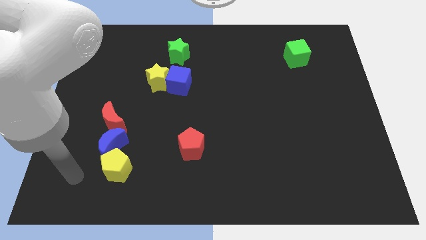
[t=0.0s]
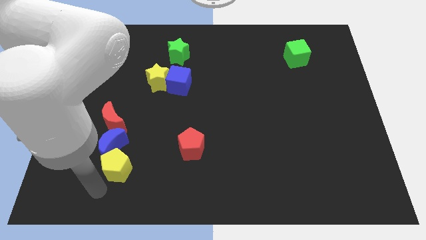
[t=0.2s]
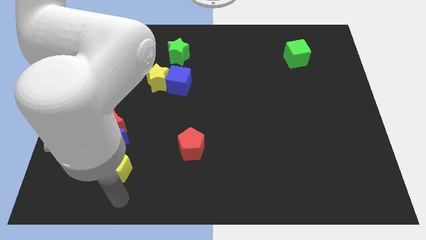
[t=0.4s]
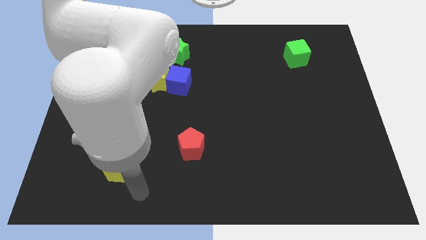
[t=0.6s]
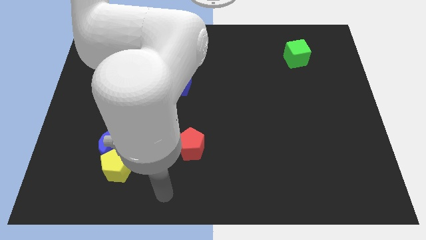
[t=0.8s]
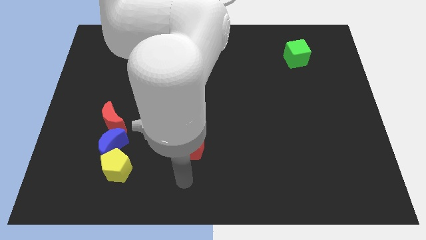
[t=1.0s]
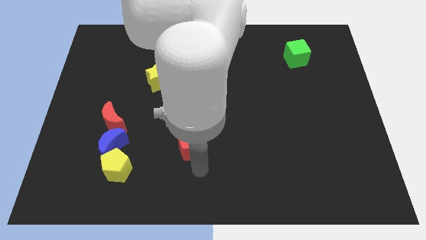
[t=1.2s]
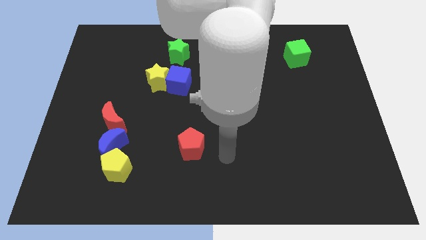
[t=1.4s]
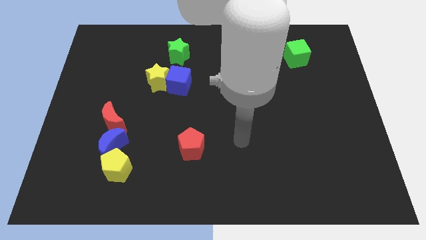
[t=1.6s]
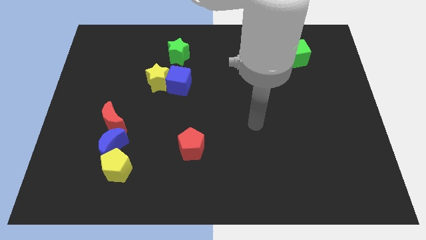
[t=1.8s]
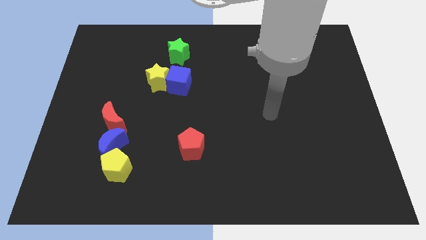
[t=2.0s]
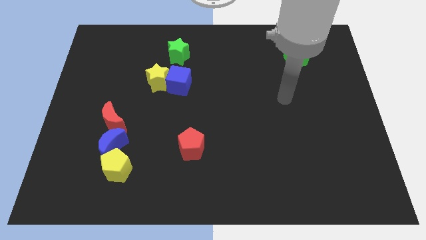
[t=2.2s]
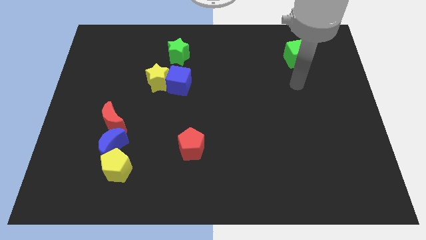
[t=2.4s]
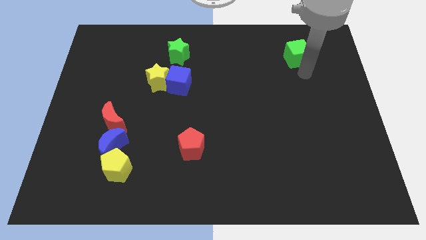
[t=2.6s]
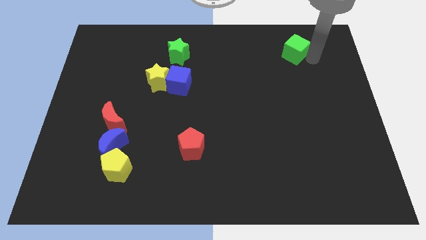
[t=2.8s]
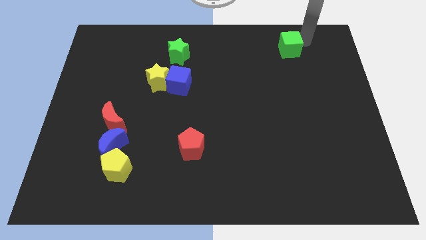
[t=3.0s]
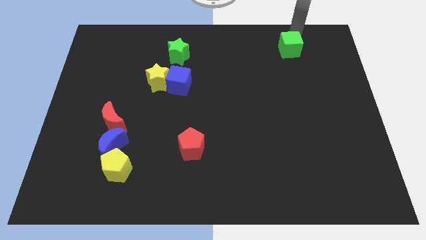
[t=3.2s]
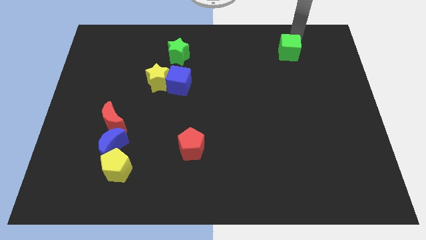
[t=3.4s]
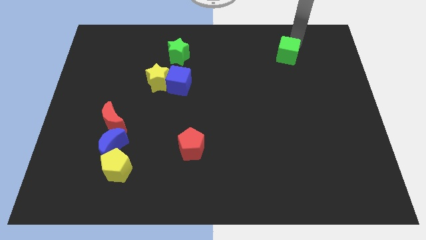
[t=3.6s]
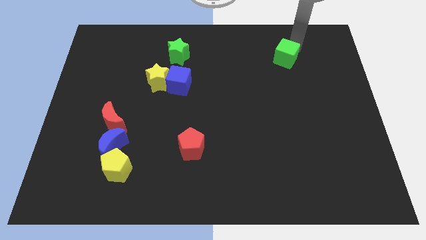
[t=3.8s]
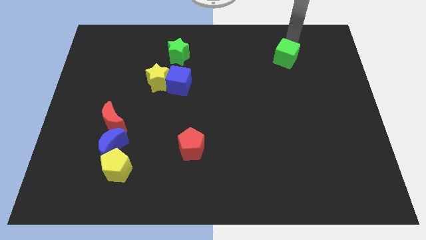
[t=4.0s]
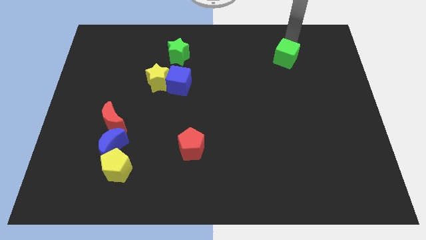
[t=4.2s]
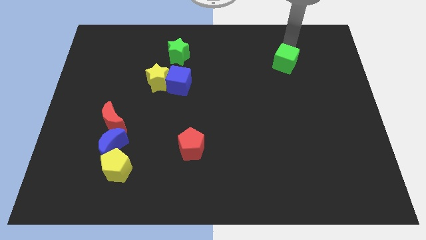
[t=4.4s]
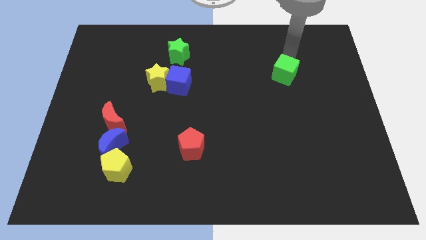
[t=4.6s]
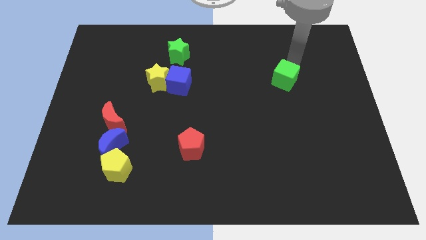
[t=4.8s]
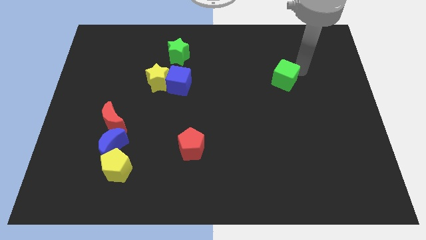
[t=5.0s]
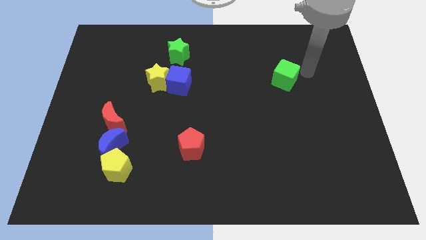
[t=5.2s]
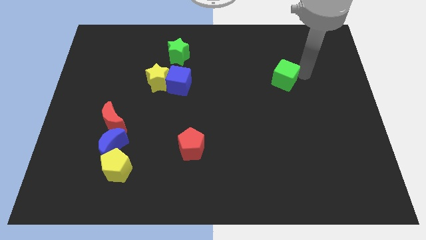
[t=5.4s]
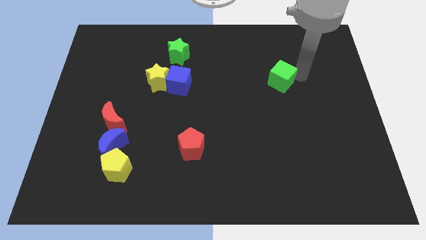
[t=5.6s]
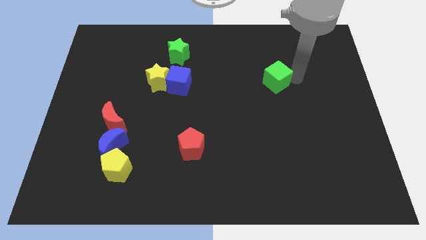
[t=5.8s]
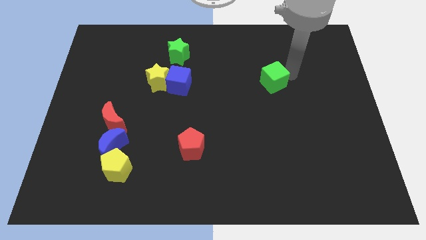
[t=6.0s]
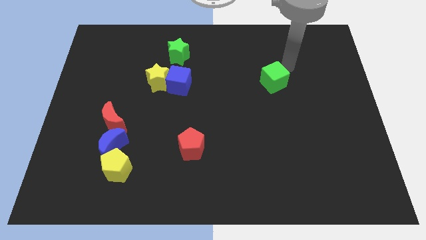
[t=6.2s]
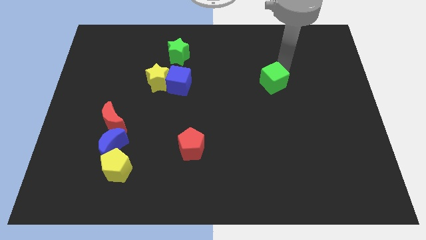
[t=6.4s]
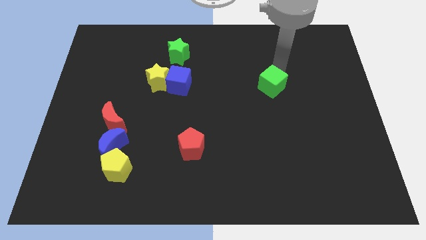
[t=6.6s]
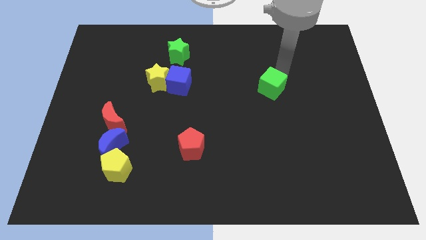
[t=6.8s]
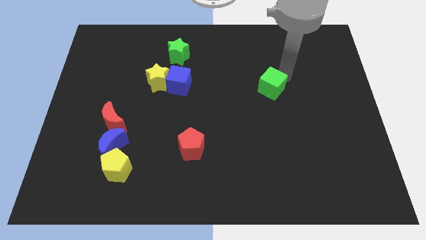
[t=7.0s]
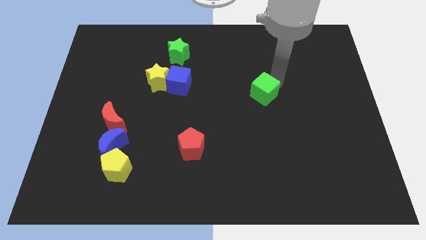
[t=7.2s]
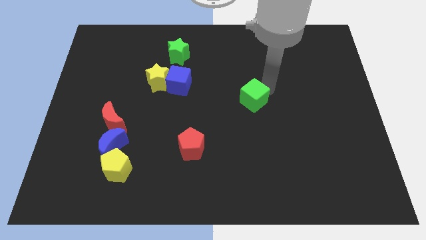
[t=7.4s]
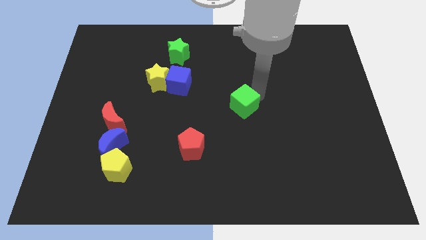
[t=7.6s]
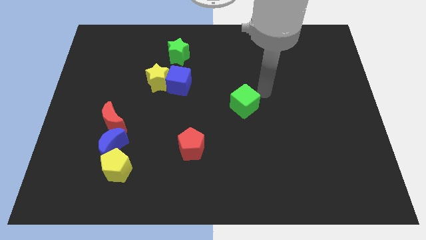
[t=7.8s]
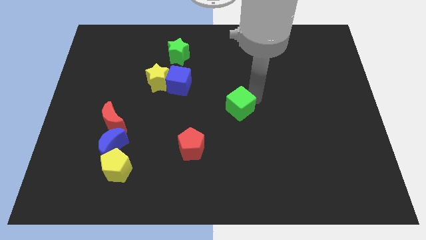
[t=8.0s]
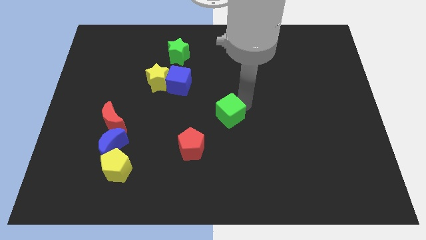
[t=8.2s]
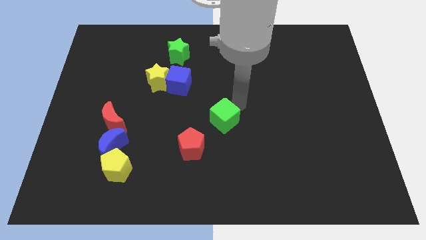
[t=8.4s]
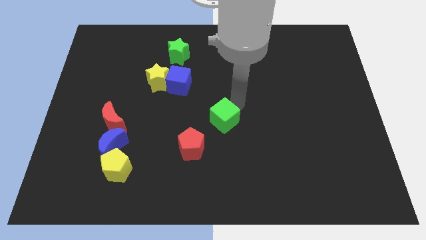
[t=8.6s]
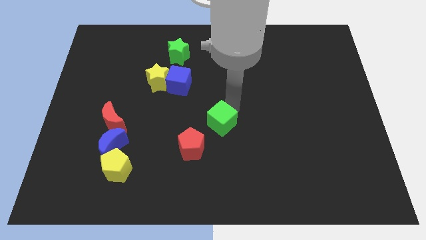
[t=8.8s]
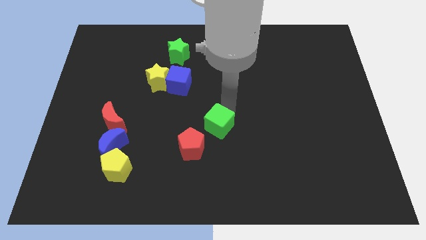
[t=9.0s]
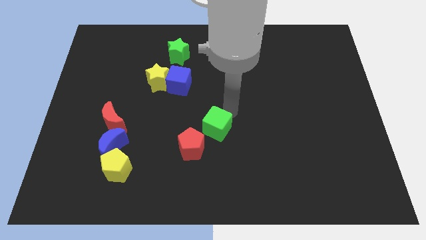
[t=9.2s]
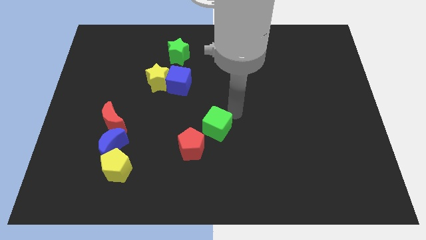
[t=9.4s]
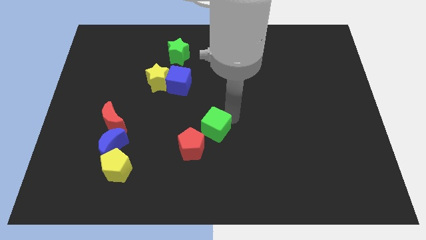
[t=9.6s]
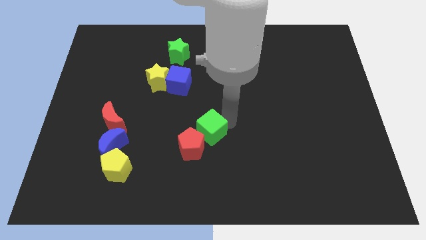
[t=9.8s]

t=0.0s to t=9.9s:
move the green cube towards the red pentagon

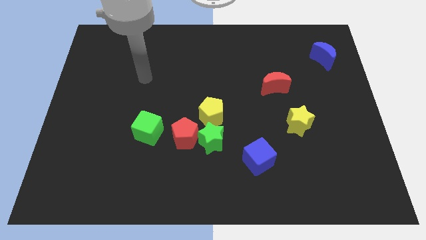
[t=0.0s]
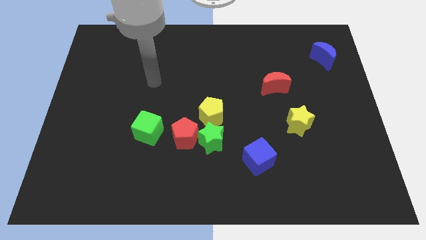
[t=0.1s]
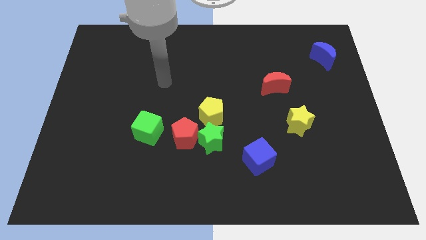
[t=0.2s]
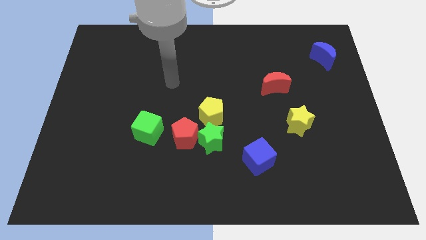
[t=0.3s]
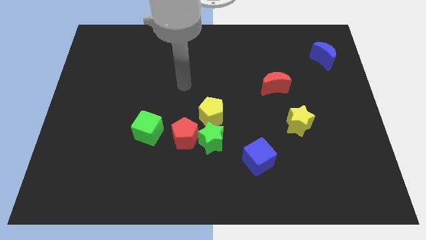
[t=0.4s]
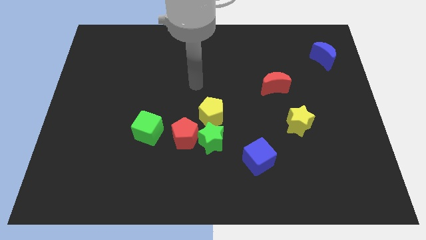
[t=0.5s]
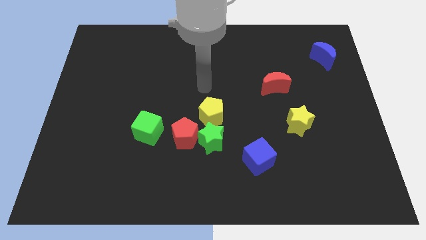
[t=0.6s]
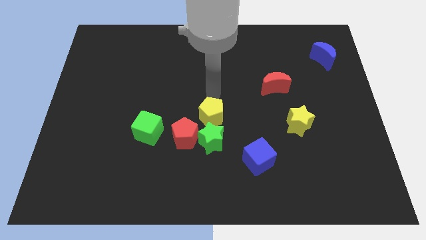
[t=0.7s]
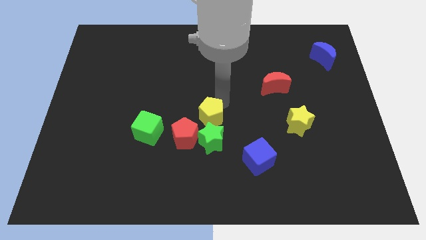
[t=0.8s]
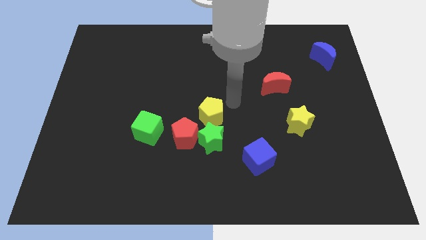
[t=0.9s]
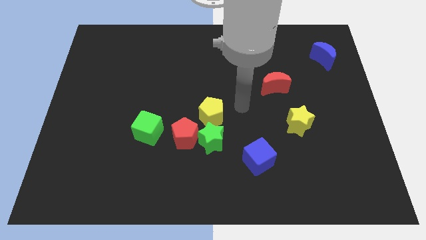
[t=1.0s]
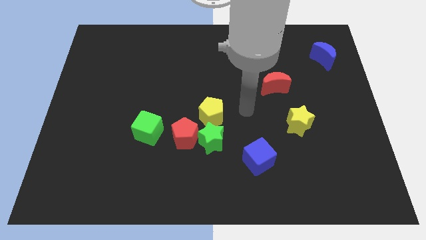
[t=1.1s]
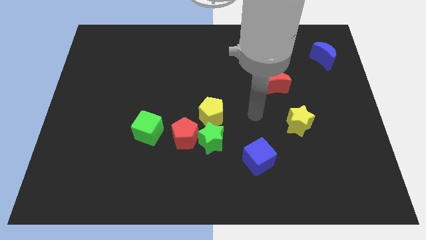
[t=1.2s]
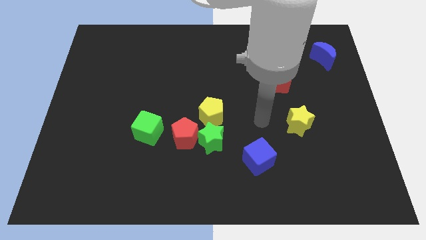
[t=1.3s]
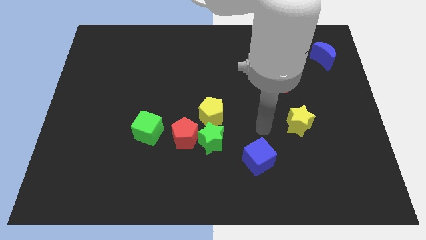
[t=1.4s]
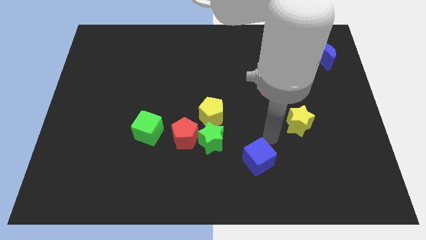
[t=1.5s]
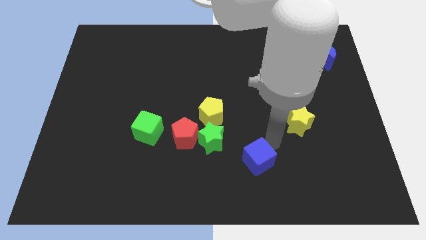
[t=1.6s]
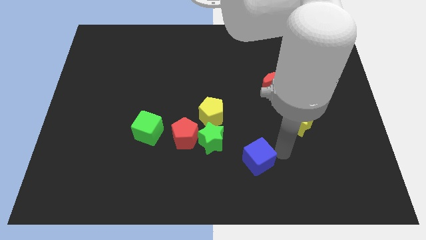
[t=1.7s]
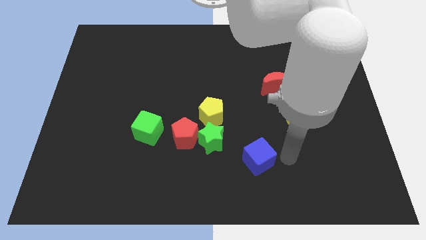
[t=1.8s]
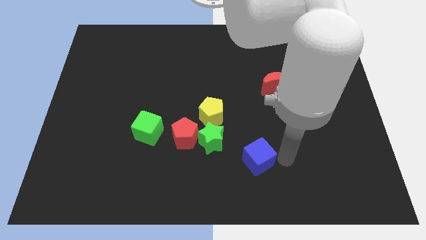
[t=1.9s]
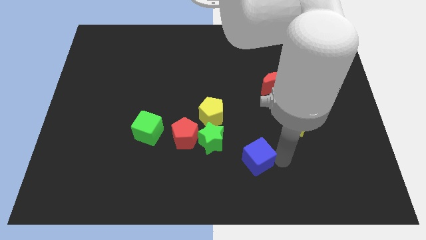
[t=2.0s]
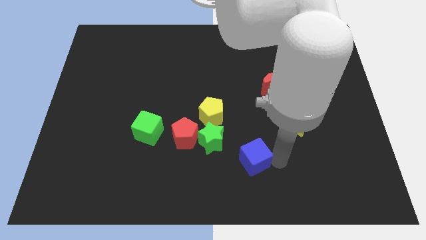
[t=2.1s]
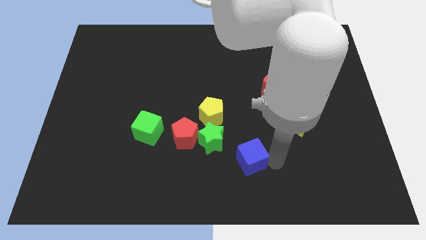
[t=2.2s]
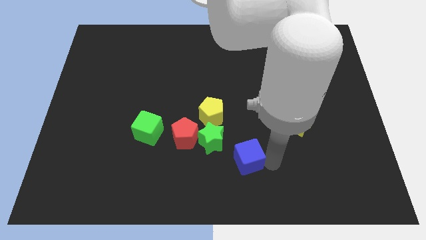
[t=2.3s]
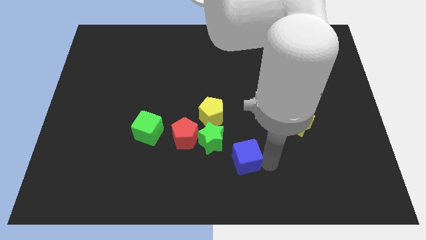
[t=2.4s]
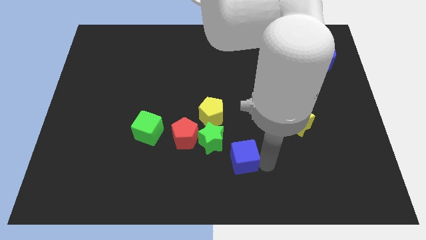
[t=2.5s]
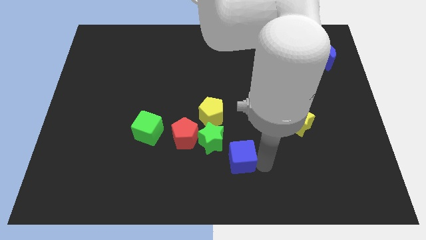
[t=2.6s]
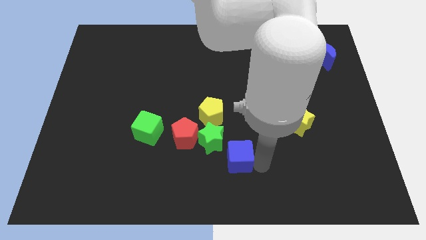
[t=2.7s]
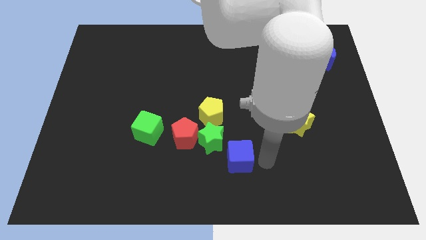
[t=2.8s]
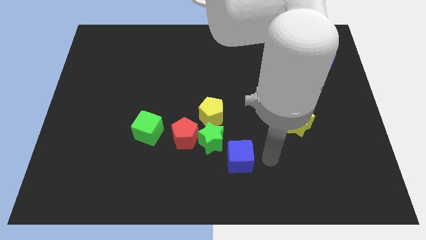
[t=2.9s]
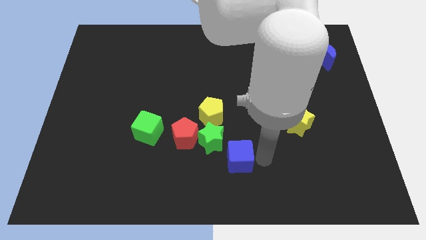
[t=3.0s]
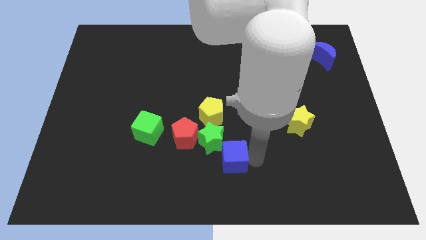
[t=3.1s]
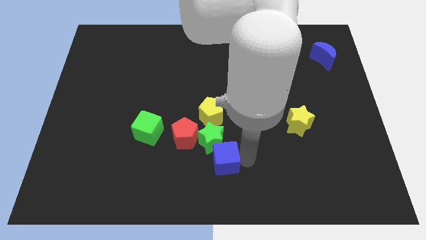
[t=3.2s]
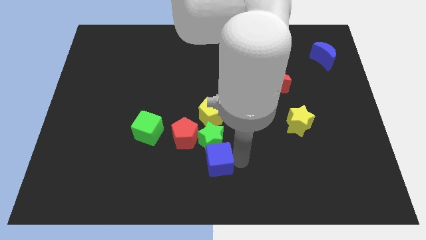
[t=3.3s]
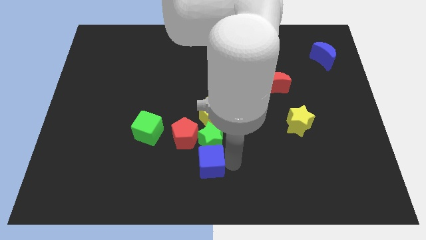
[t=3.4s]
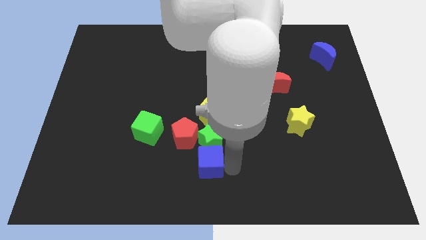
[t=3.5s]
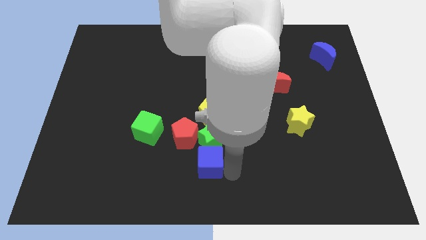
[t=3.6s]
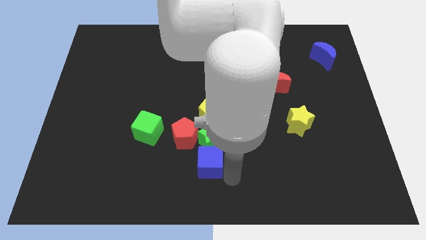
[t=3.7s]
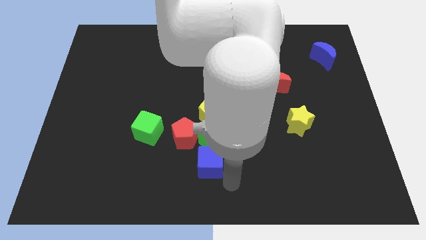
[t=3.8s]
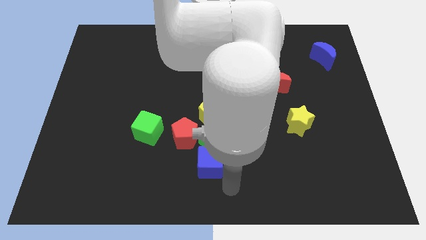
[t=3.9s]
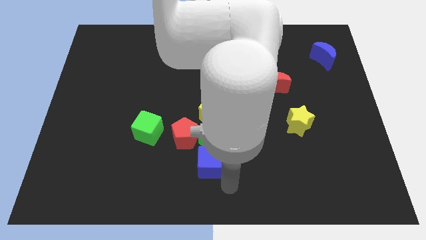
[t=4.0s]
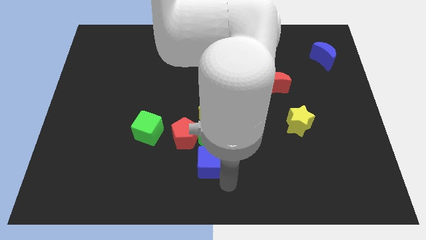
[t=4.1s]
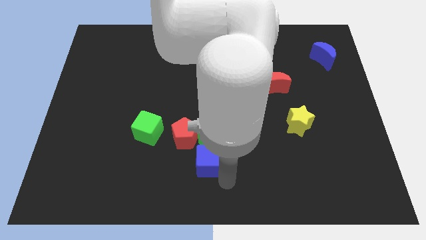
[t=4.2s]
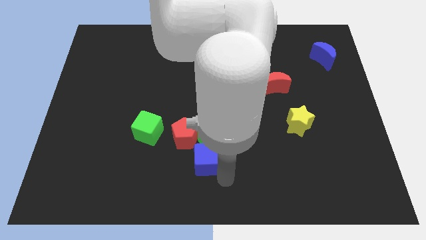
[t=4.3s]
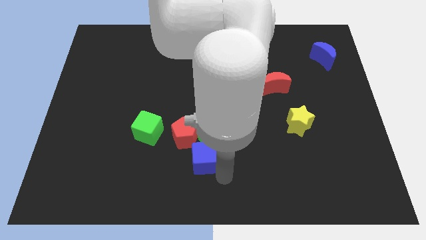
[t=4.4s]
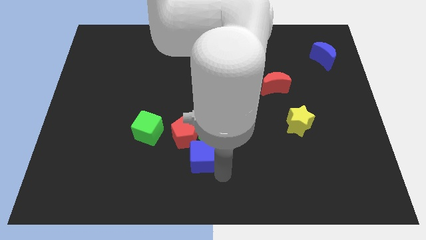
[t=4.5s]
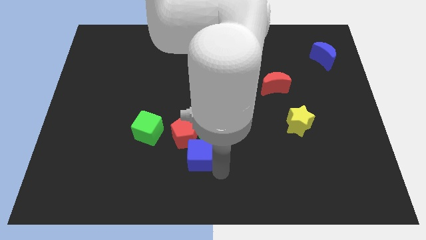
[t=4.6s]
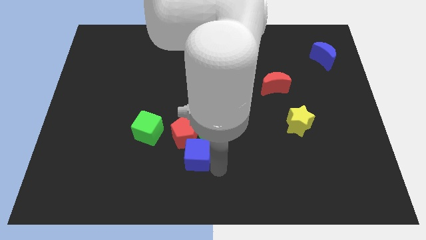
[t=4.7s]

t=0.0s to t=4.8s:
slide the blue cube close to the red pentagon
